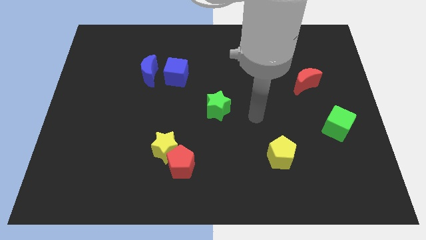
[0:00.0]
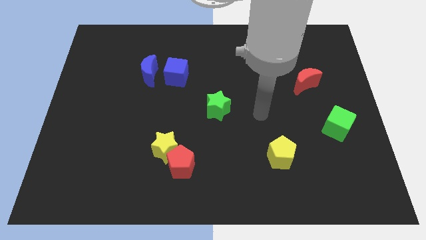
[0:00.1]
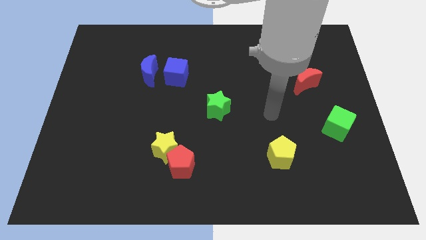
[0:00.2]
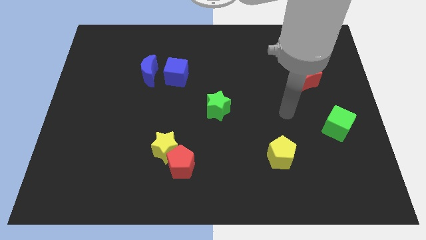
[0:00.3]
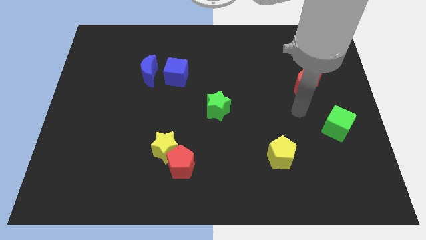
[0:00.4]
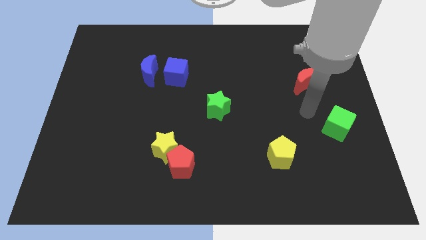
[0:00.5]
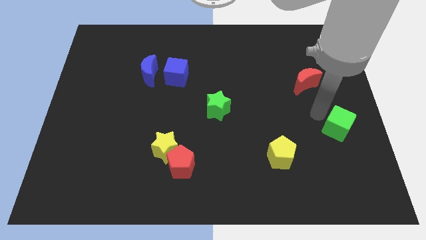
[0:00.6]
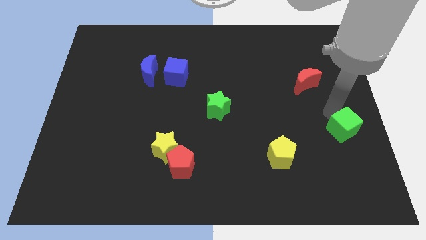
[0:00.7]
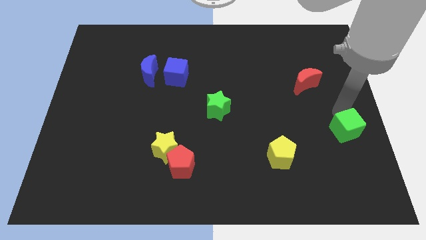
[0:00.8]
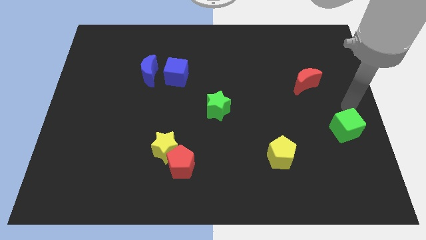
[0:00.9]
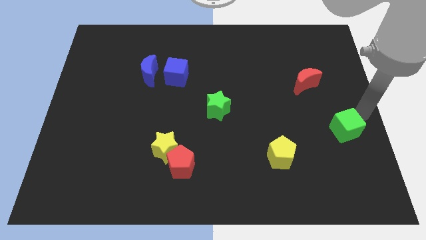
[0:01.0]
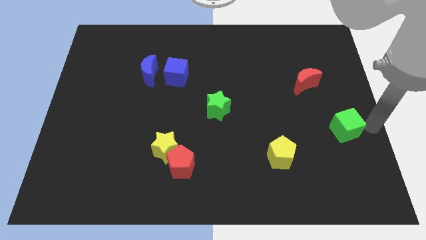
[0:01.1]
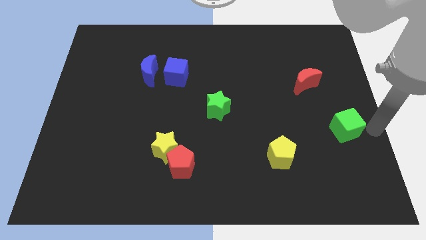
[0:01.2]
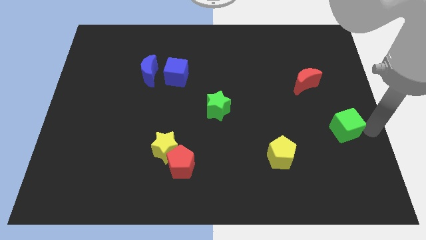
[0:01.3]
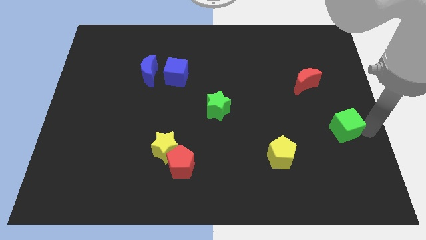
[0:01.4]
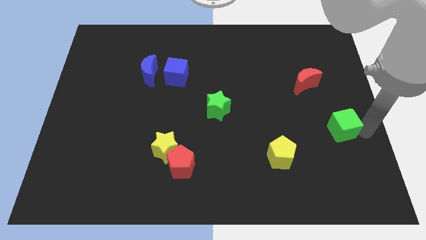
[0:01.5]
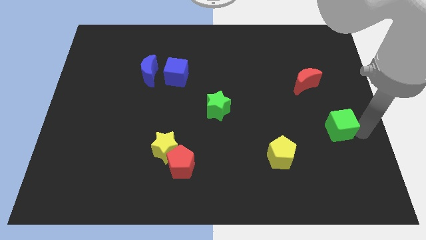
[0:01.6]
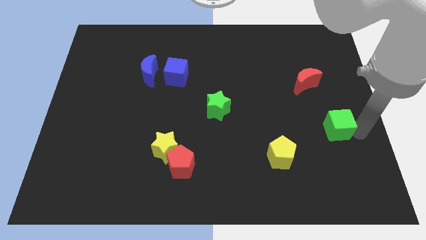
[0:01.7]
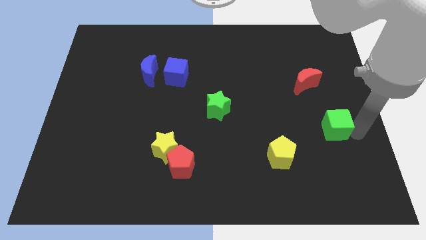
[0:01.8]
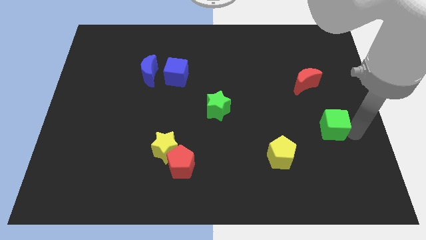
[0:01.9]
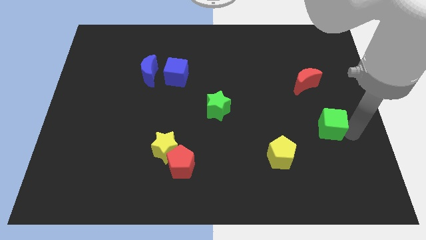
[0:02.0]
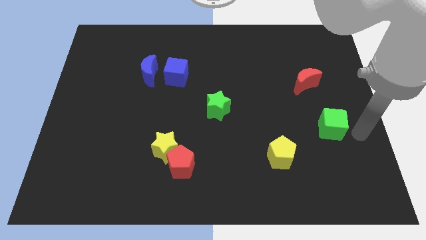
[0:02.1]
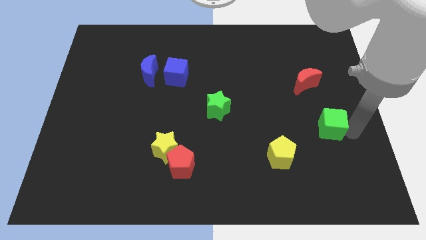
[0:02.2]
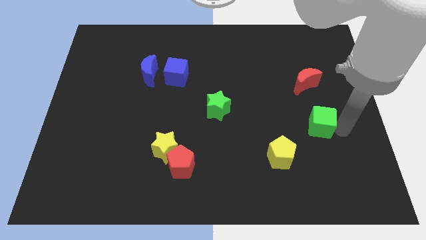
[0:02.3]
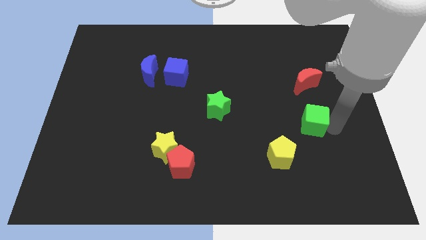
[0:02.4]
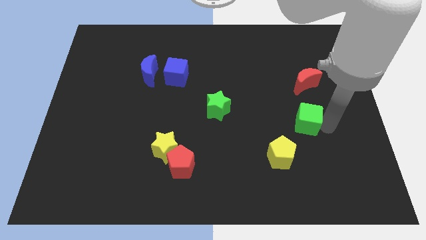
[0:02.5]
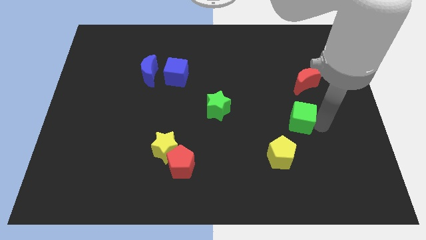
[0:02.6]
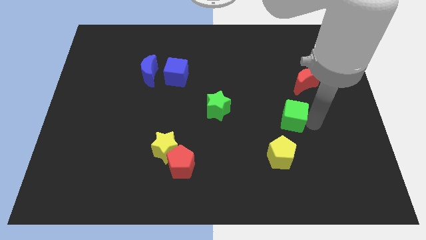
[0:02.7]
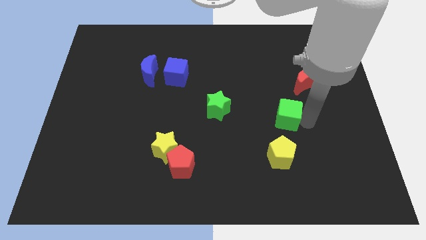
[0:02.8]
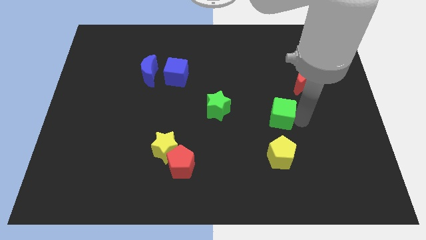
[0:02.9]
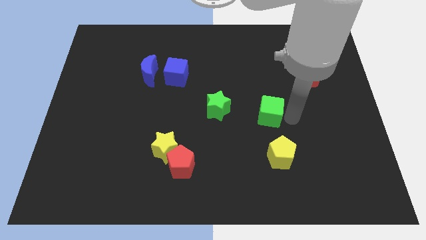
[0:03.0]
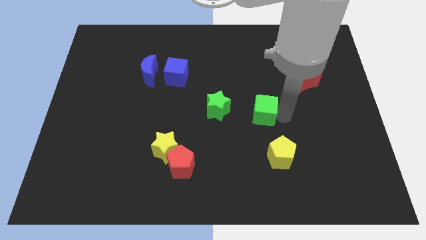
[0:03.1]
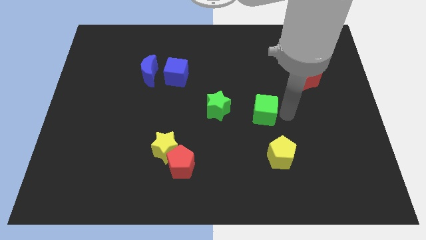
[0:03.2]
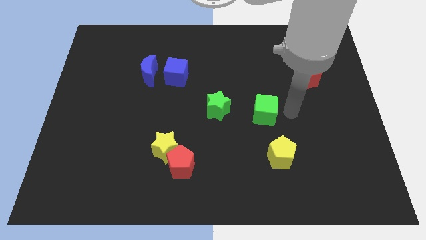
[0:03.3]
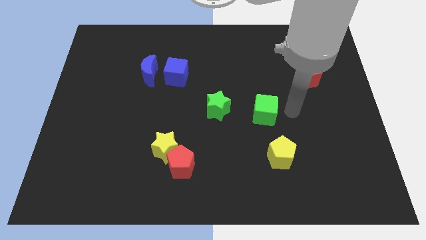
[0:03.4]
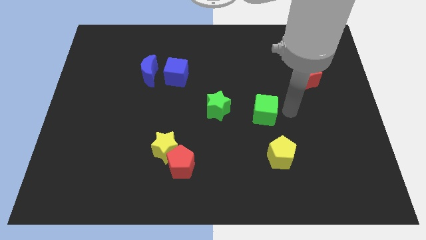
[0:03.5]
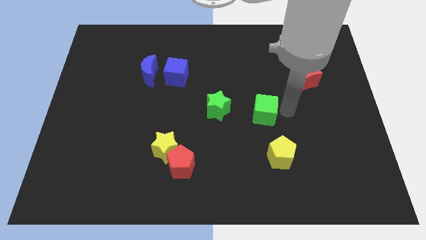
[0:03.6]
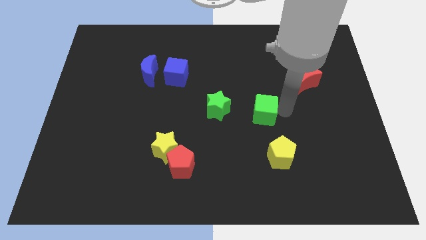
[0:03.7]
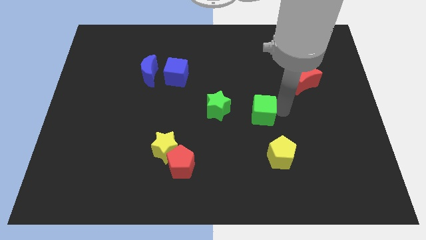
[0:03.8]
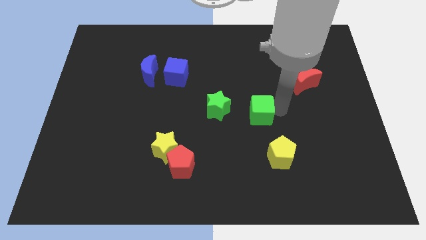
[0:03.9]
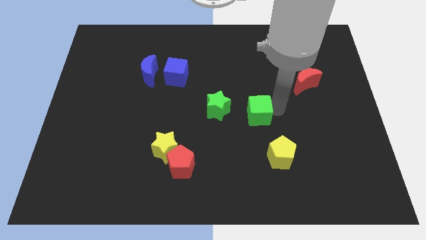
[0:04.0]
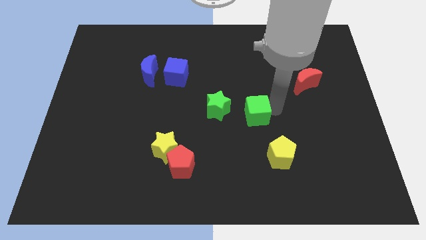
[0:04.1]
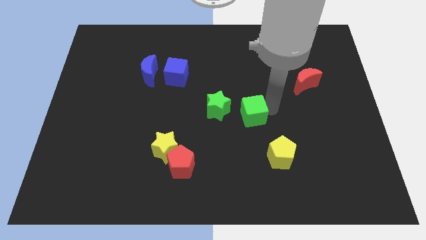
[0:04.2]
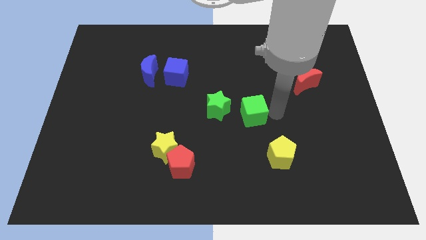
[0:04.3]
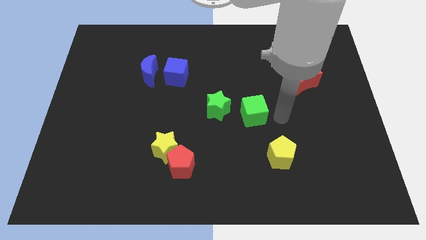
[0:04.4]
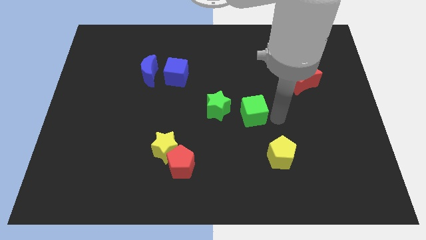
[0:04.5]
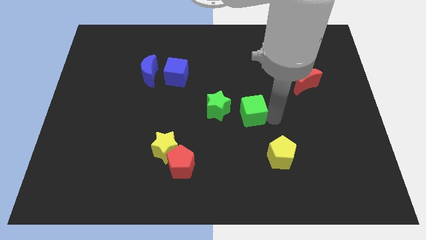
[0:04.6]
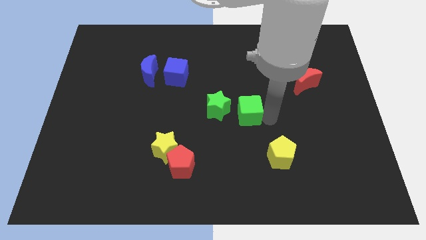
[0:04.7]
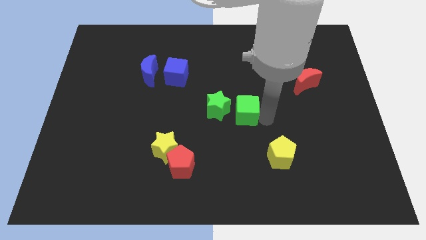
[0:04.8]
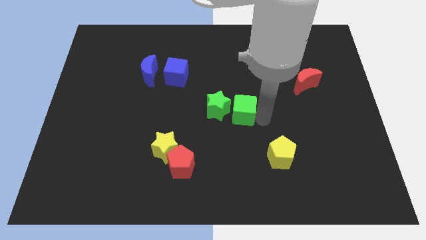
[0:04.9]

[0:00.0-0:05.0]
put the green cube towards the green star

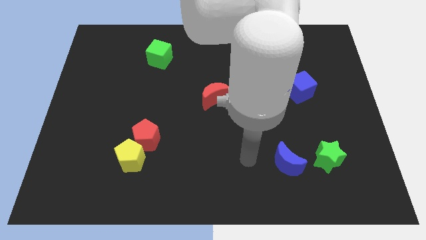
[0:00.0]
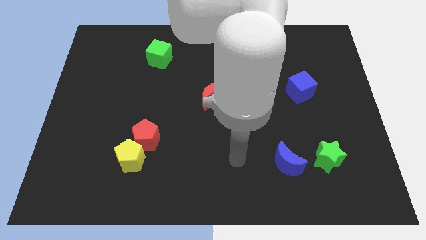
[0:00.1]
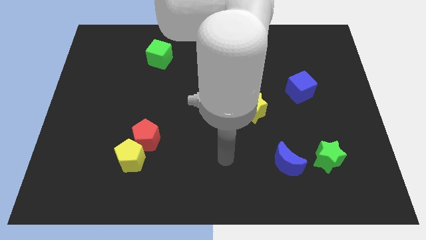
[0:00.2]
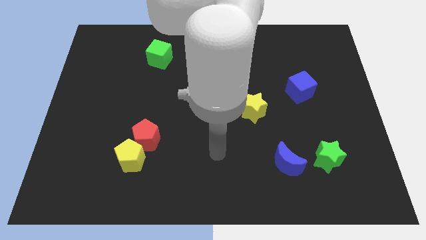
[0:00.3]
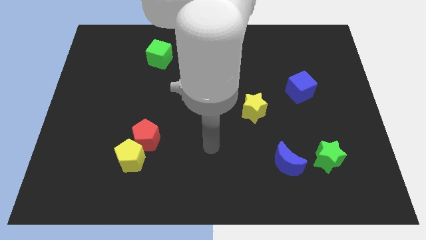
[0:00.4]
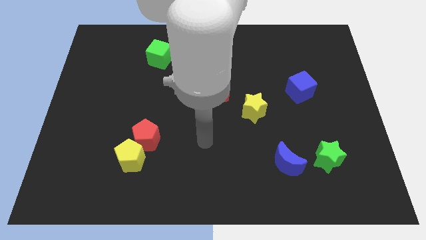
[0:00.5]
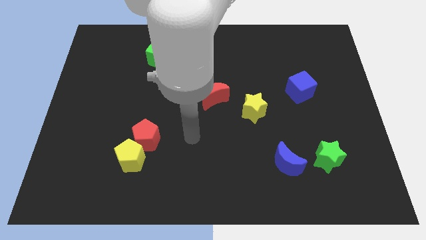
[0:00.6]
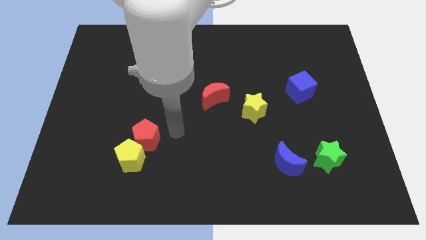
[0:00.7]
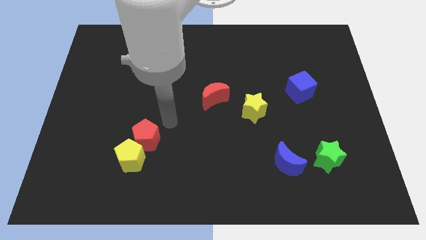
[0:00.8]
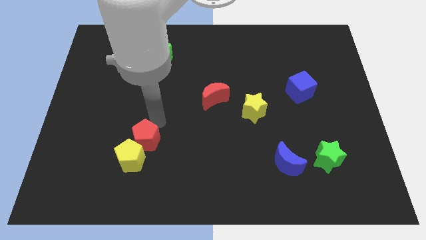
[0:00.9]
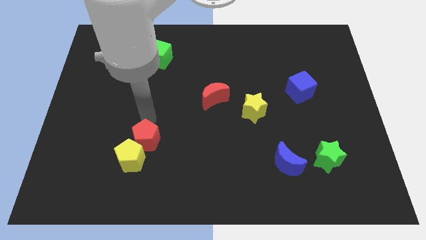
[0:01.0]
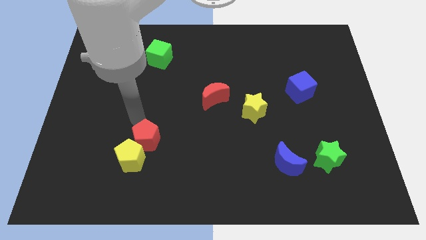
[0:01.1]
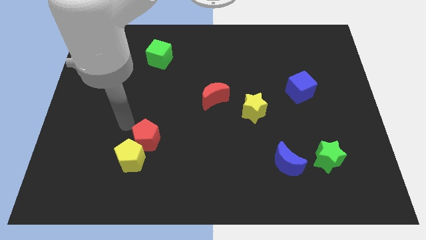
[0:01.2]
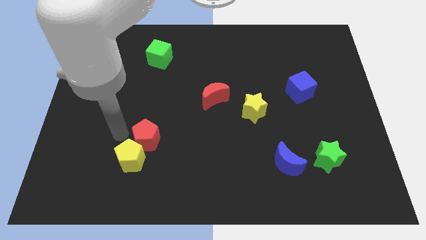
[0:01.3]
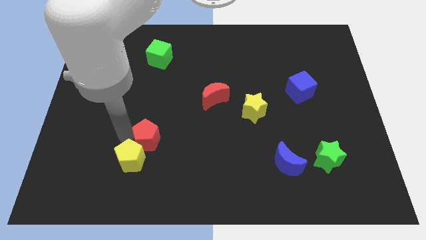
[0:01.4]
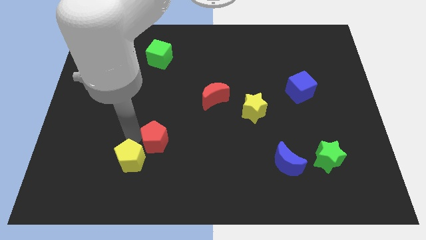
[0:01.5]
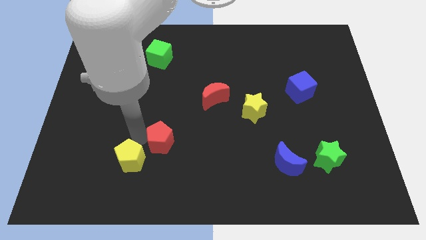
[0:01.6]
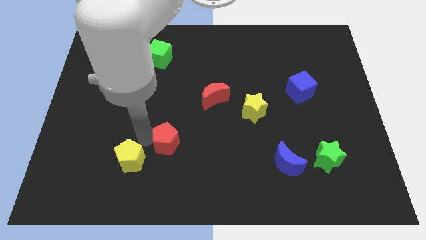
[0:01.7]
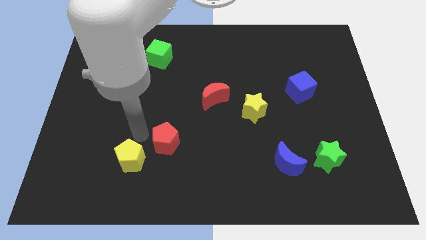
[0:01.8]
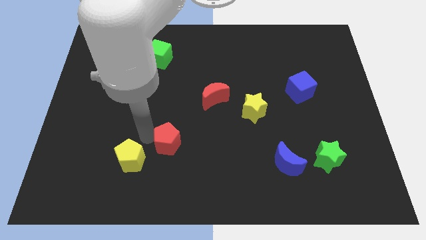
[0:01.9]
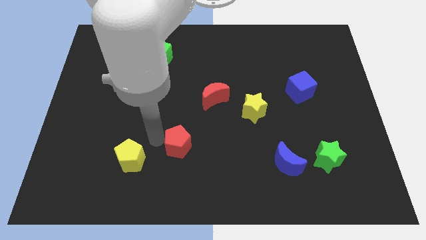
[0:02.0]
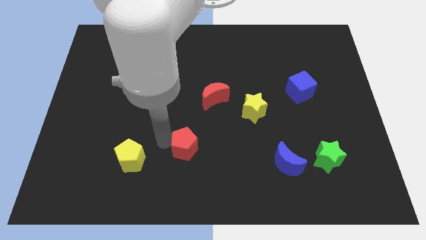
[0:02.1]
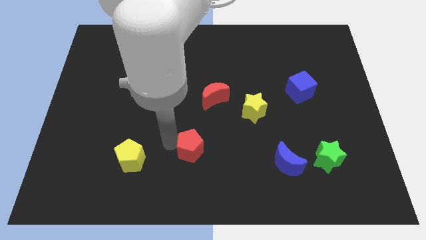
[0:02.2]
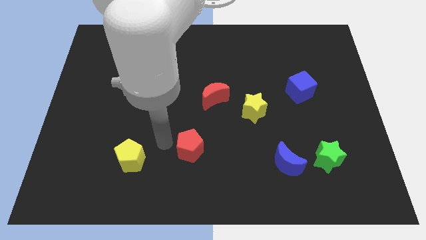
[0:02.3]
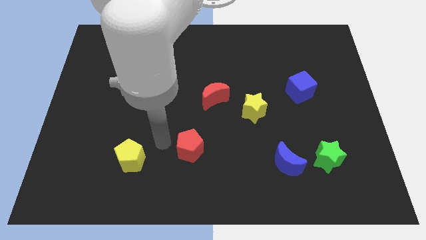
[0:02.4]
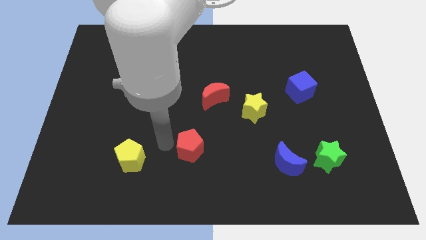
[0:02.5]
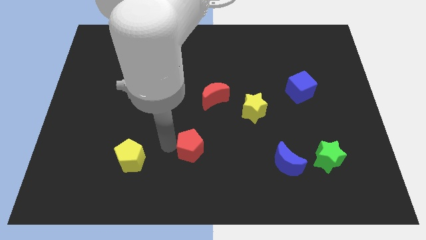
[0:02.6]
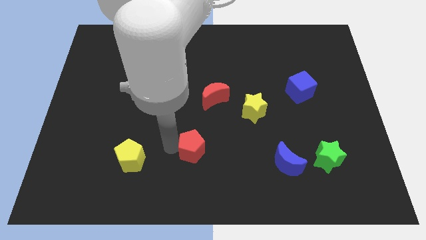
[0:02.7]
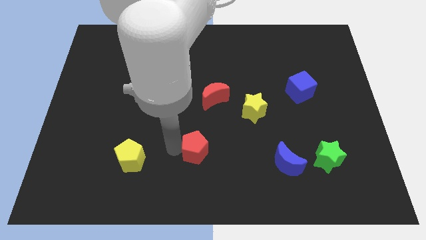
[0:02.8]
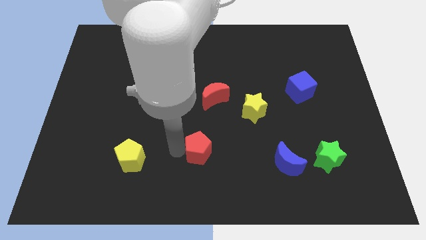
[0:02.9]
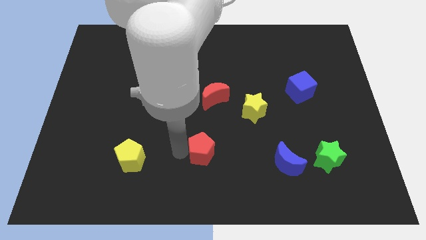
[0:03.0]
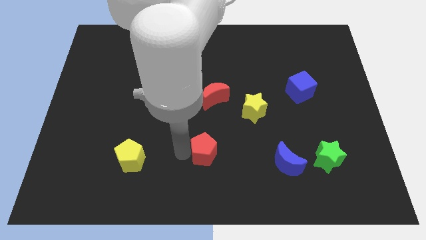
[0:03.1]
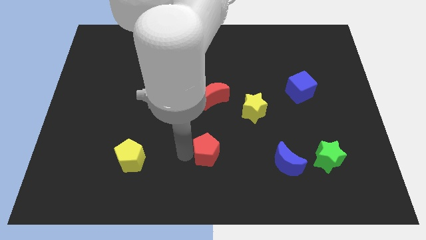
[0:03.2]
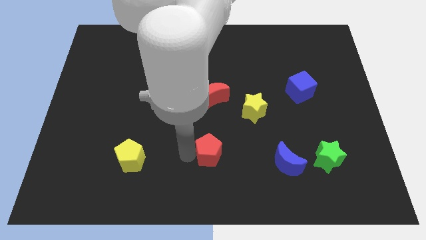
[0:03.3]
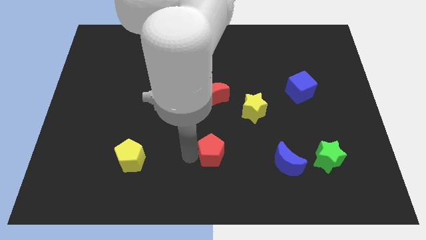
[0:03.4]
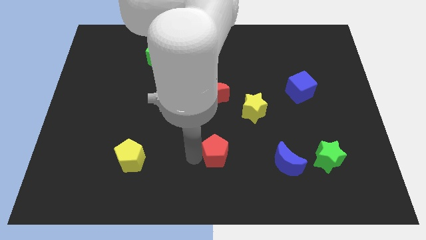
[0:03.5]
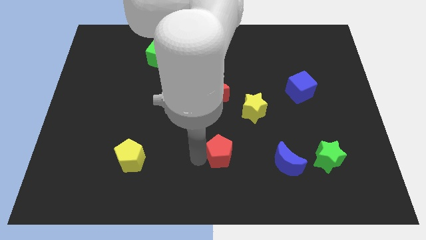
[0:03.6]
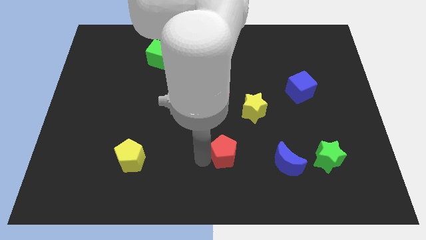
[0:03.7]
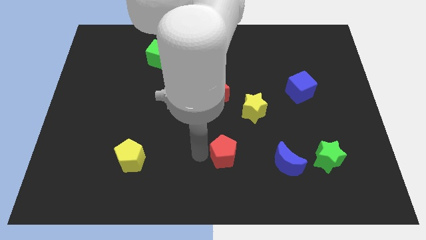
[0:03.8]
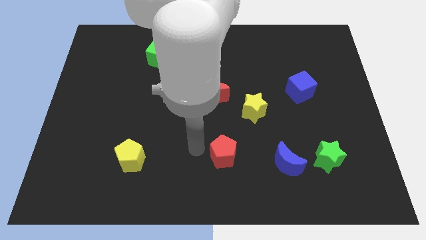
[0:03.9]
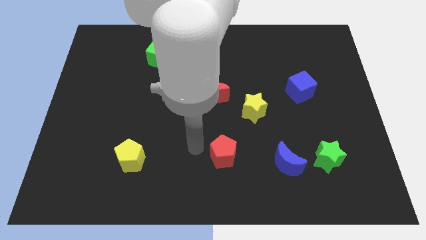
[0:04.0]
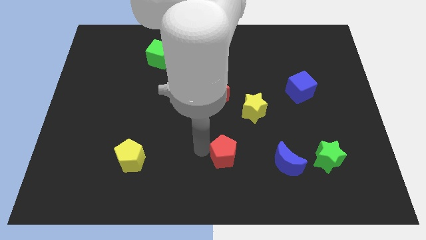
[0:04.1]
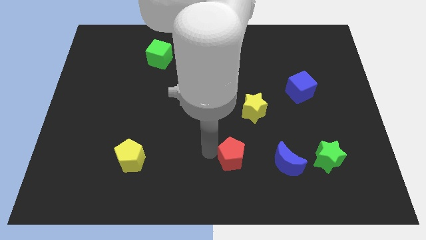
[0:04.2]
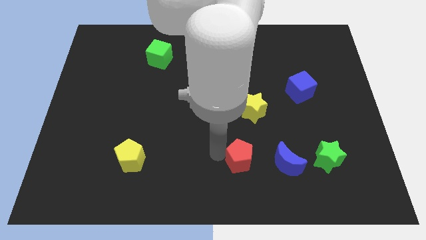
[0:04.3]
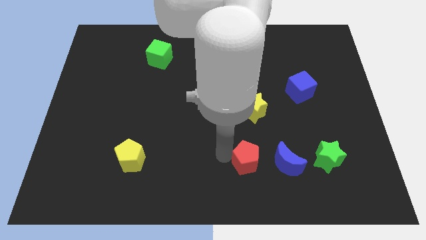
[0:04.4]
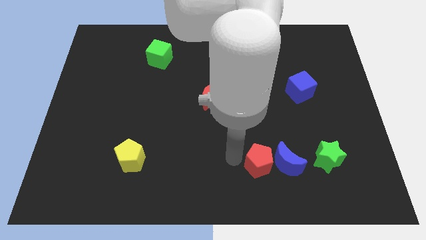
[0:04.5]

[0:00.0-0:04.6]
slide the red pentagon next to the blue moon
